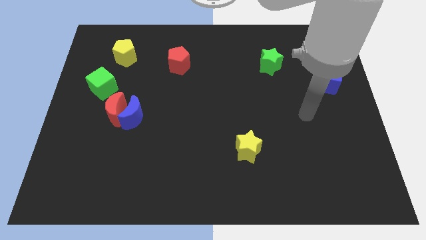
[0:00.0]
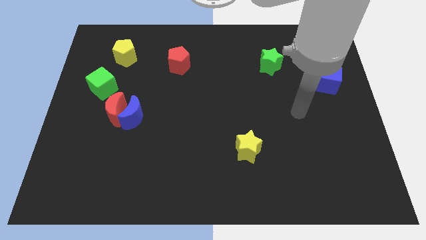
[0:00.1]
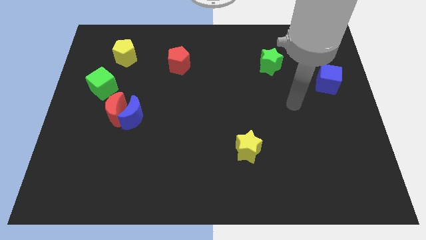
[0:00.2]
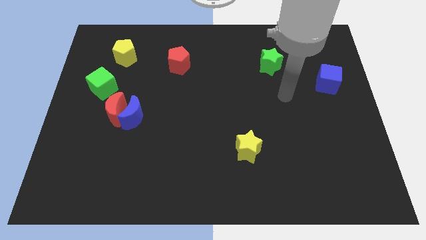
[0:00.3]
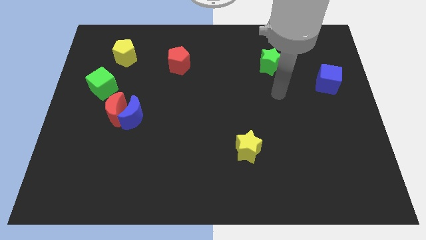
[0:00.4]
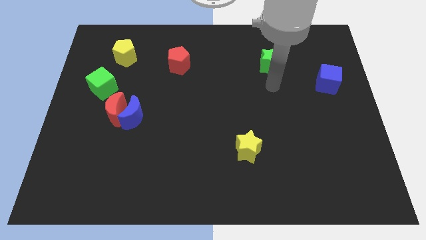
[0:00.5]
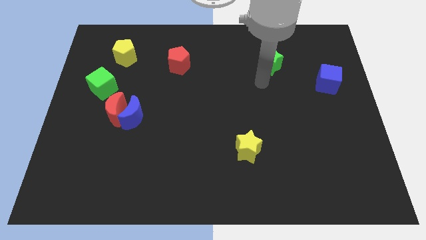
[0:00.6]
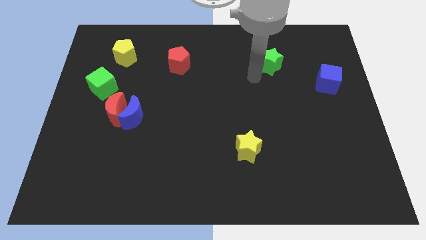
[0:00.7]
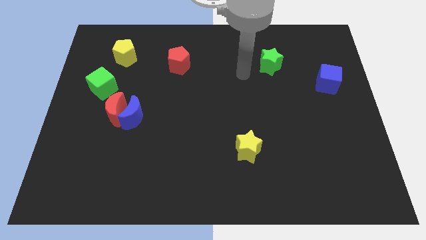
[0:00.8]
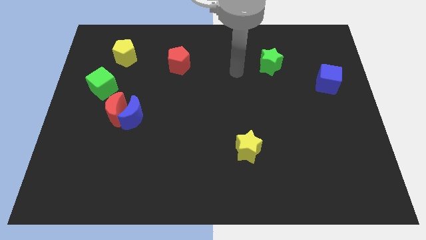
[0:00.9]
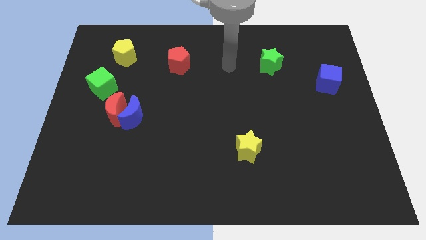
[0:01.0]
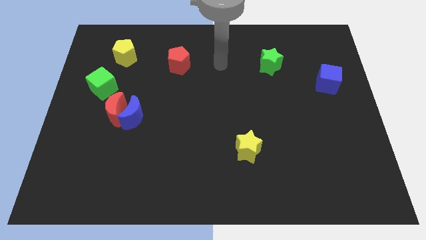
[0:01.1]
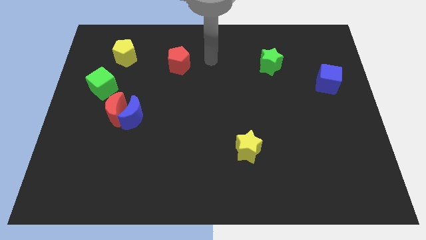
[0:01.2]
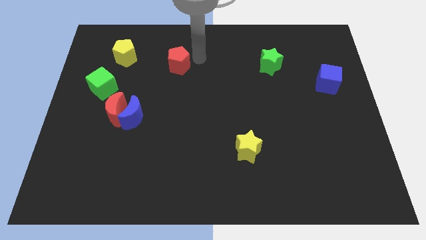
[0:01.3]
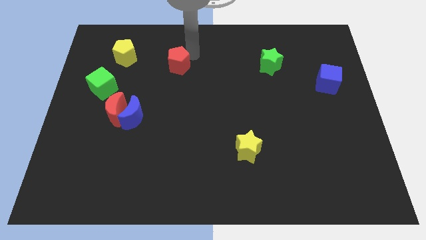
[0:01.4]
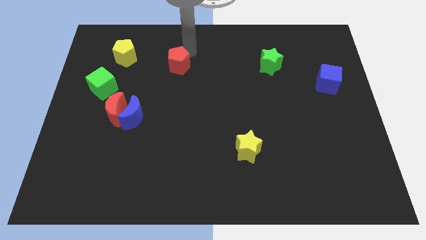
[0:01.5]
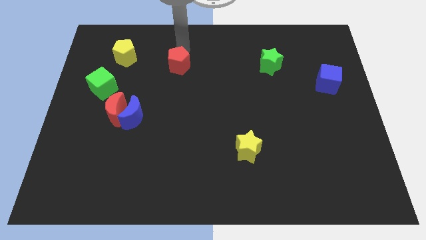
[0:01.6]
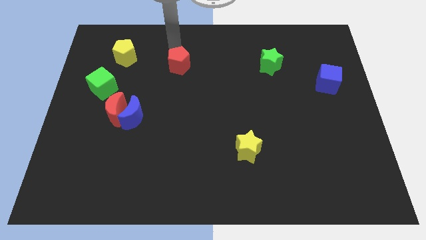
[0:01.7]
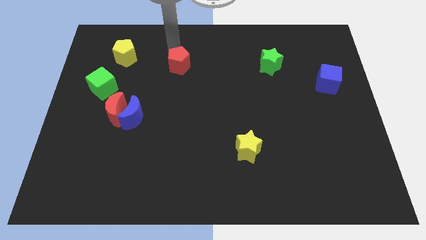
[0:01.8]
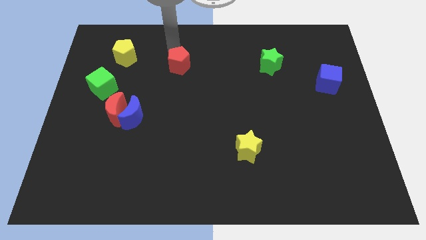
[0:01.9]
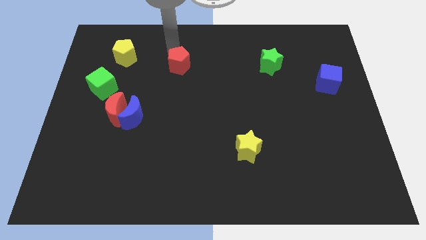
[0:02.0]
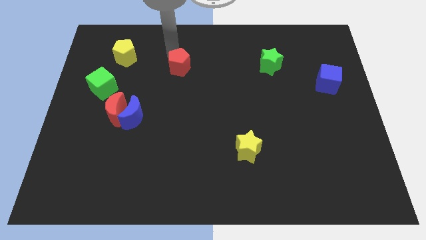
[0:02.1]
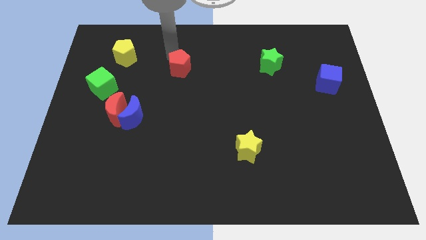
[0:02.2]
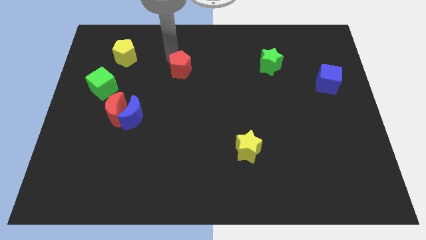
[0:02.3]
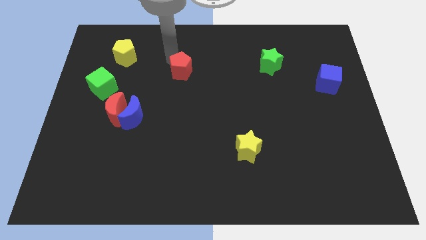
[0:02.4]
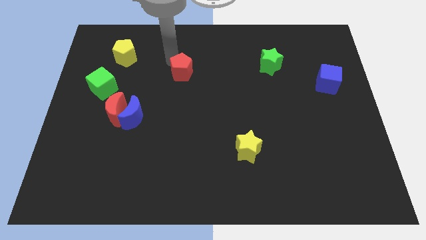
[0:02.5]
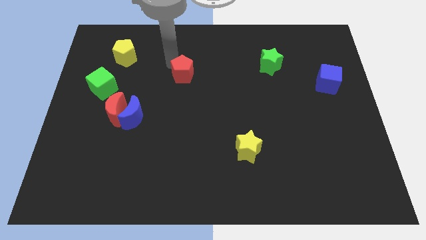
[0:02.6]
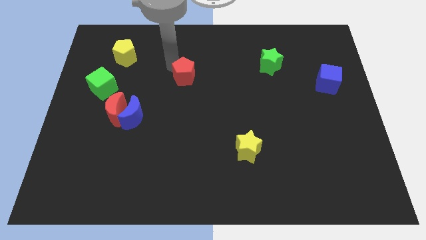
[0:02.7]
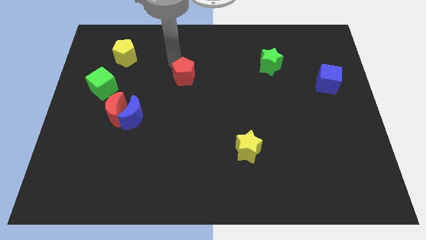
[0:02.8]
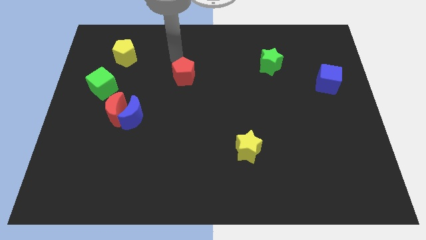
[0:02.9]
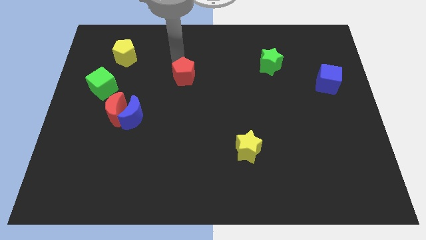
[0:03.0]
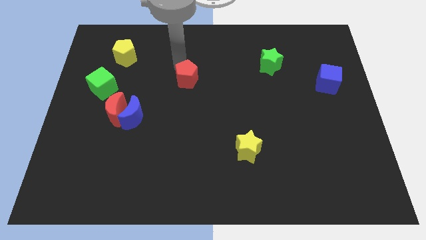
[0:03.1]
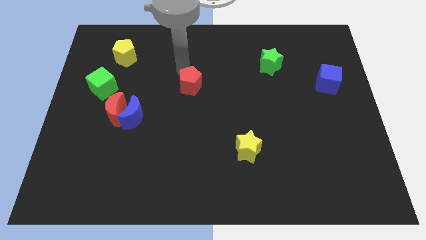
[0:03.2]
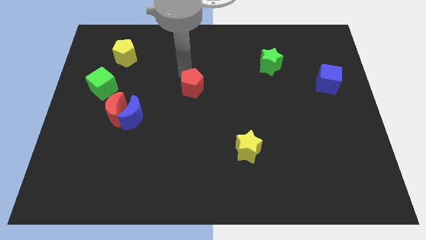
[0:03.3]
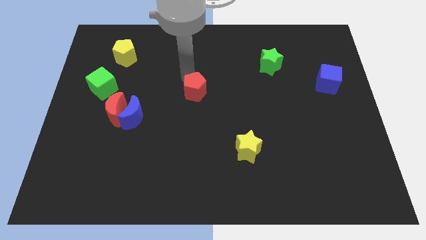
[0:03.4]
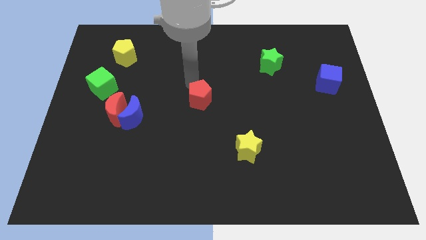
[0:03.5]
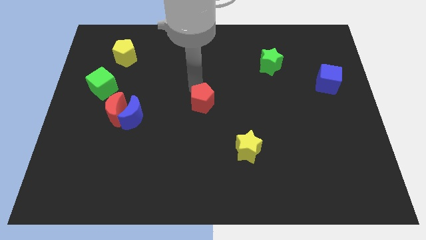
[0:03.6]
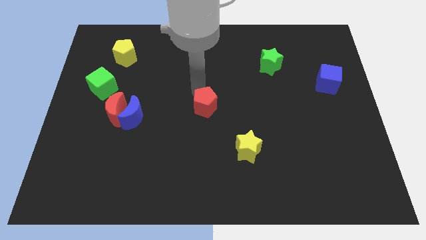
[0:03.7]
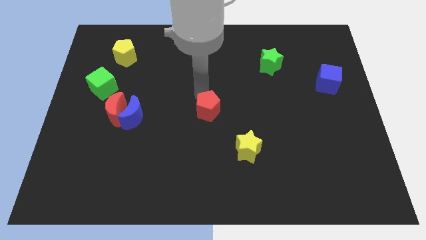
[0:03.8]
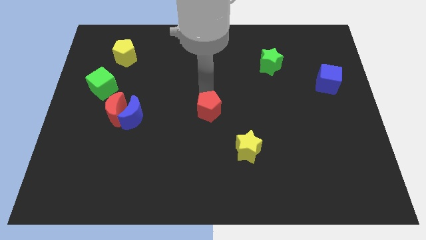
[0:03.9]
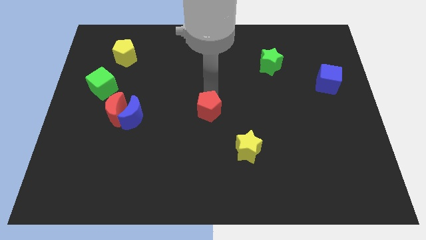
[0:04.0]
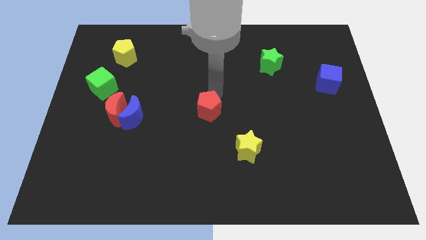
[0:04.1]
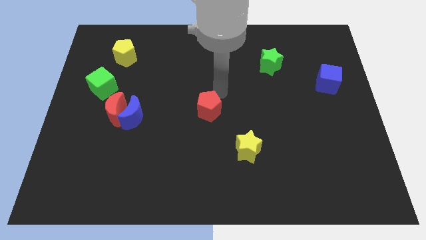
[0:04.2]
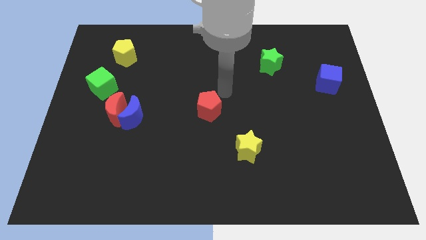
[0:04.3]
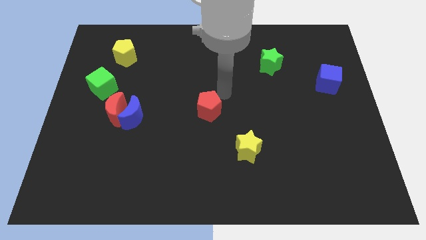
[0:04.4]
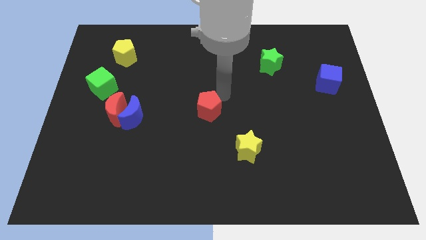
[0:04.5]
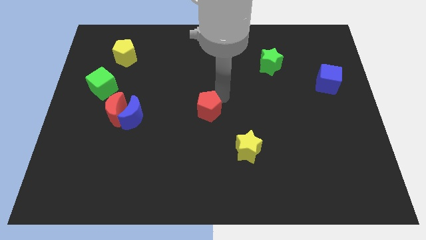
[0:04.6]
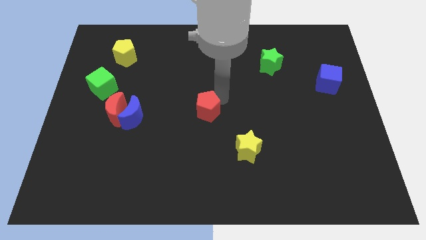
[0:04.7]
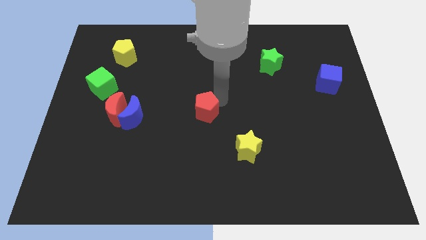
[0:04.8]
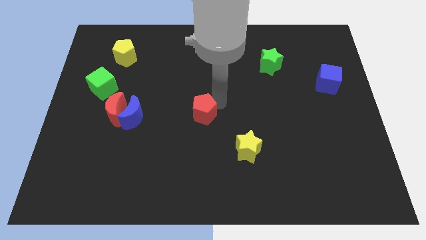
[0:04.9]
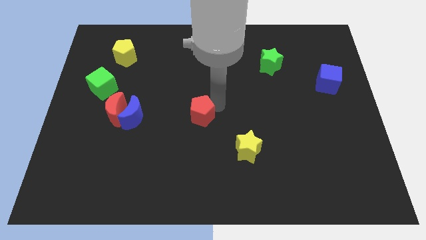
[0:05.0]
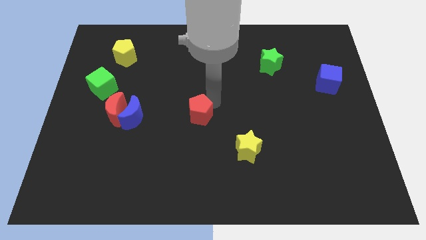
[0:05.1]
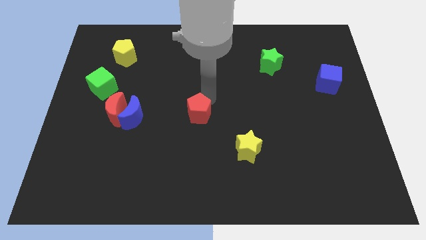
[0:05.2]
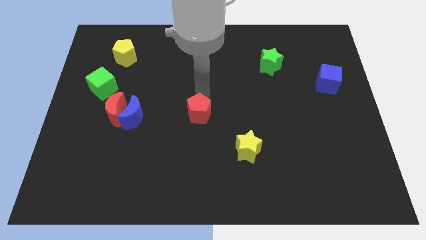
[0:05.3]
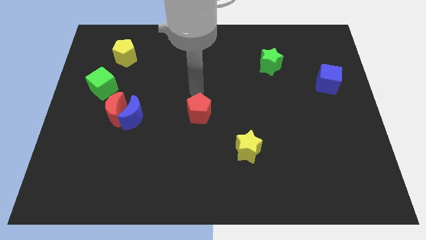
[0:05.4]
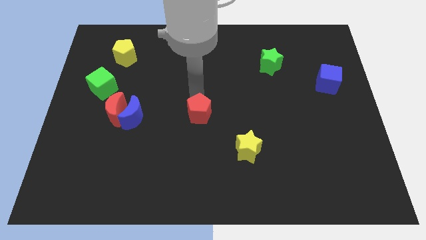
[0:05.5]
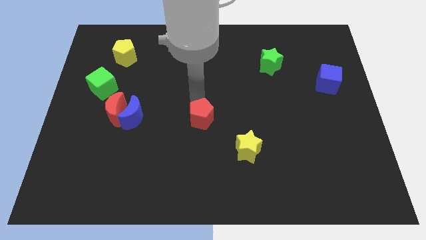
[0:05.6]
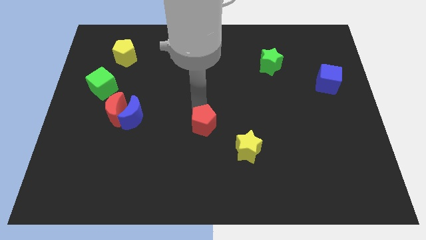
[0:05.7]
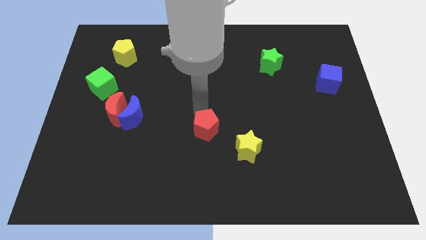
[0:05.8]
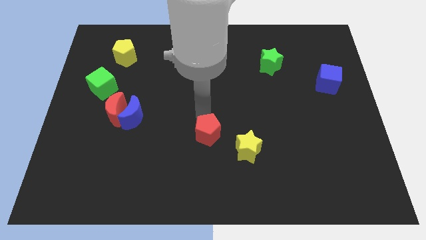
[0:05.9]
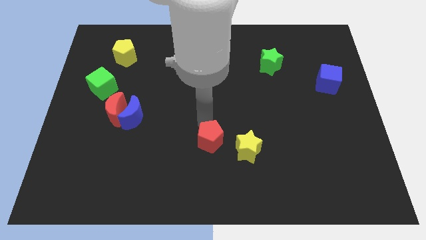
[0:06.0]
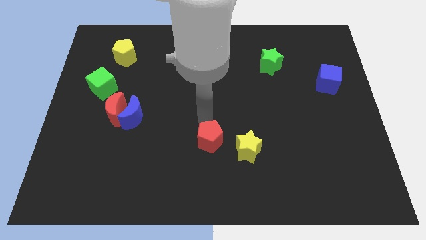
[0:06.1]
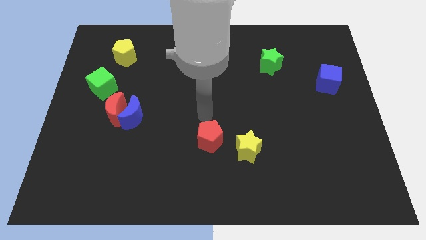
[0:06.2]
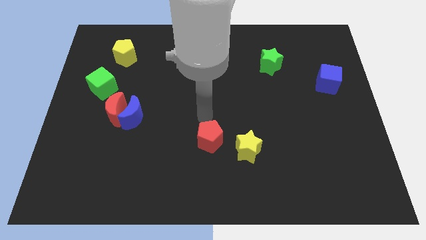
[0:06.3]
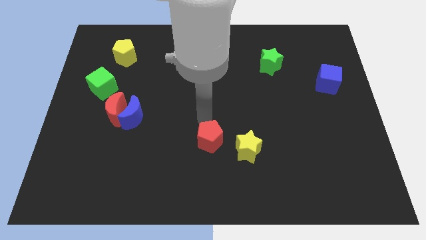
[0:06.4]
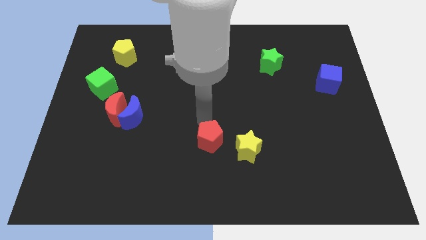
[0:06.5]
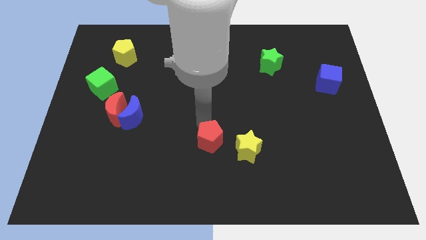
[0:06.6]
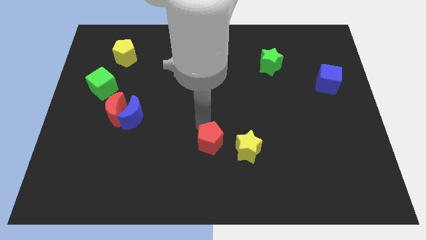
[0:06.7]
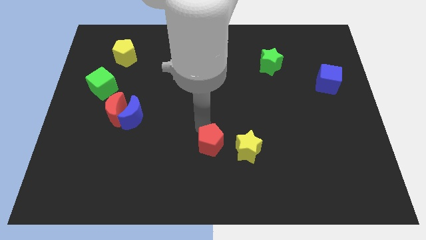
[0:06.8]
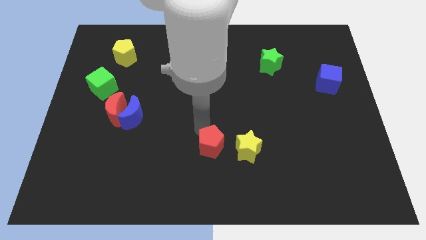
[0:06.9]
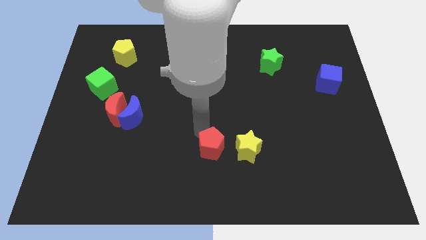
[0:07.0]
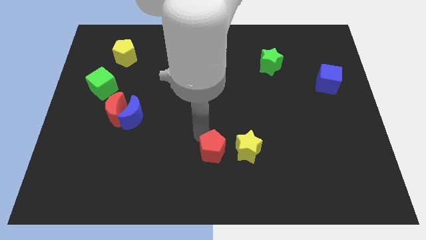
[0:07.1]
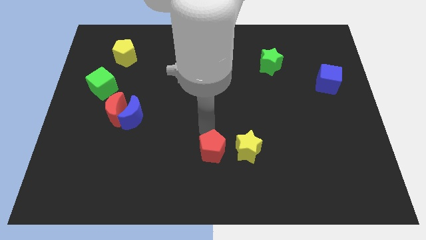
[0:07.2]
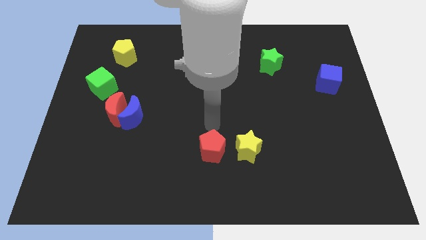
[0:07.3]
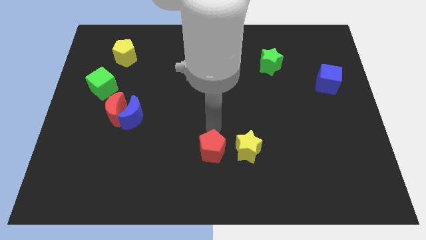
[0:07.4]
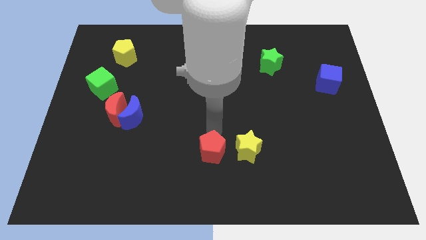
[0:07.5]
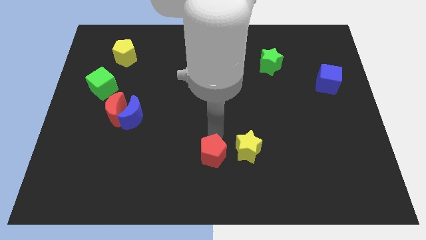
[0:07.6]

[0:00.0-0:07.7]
move the red pentagon to the bottom side
